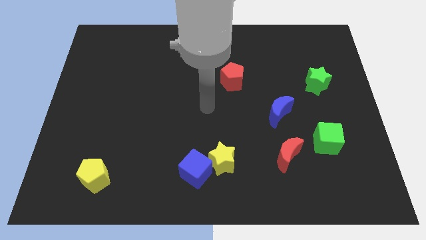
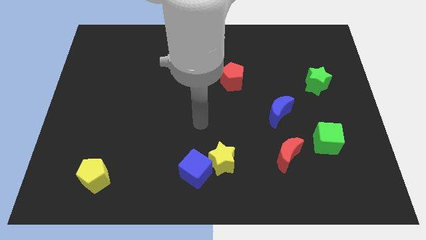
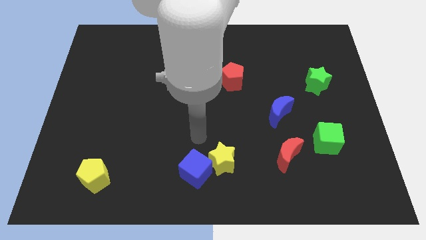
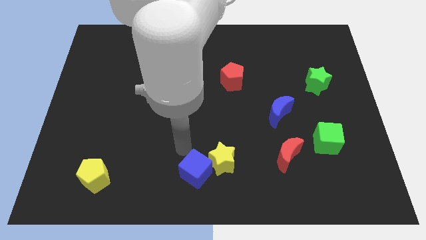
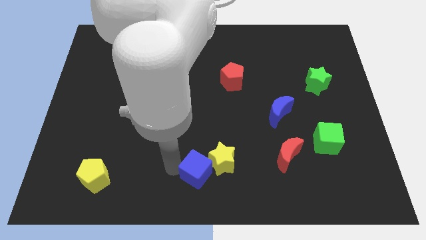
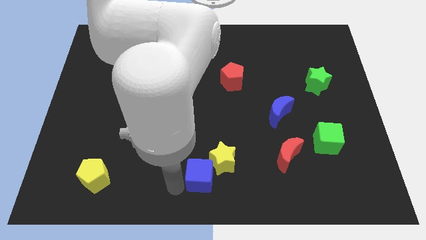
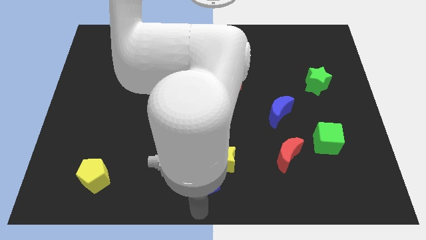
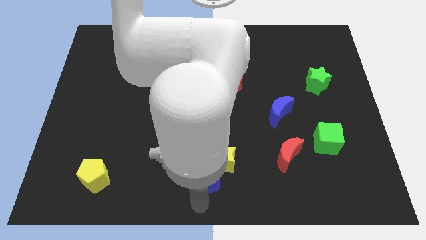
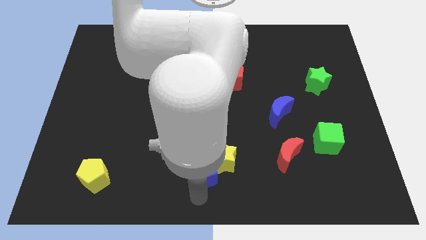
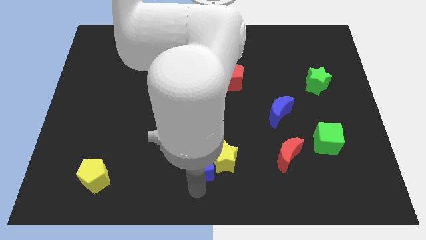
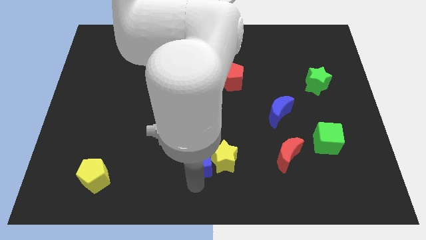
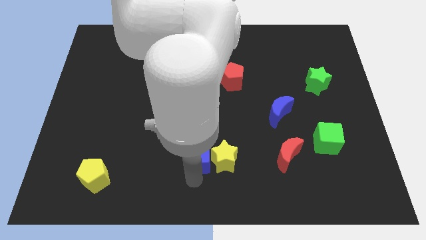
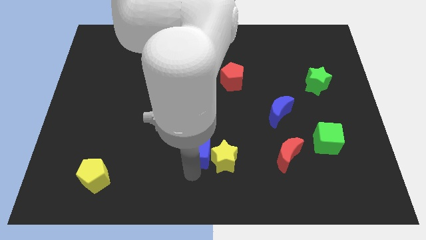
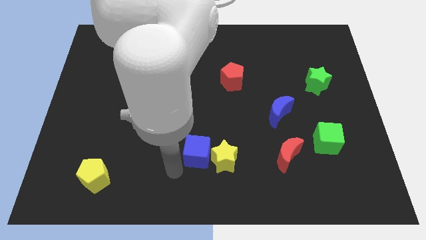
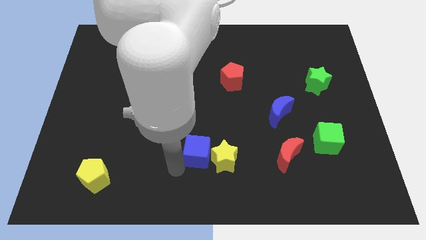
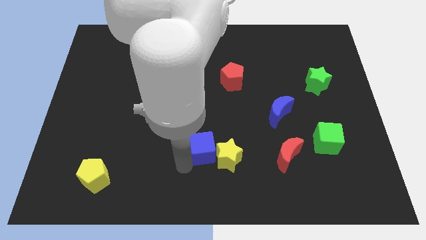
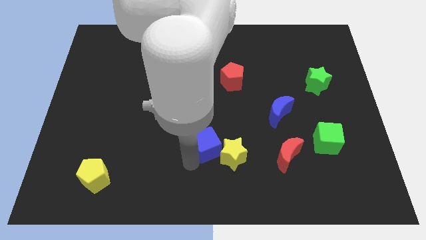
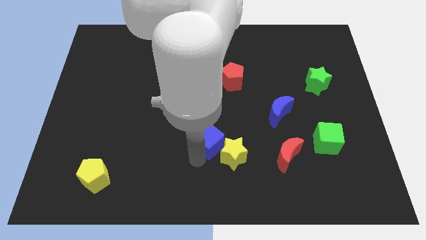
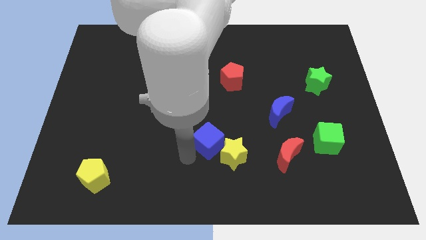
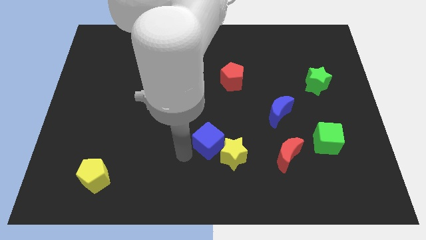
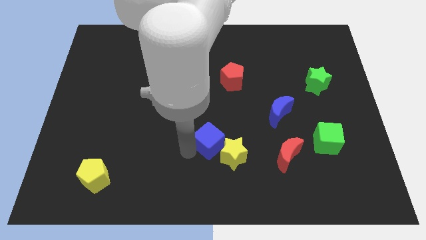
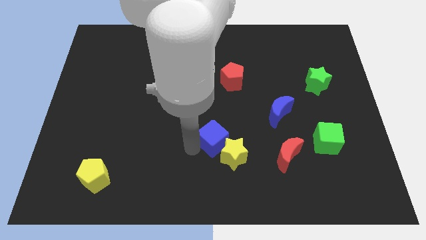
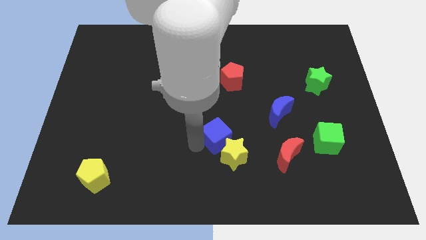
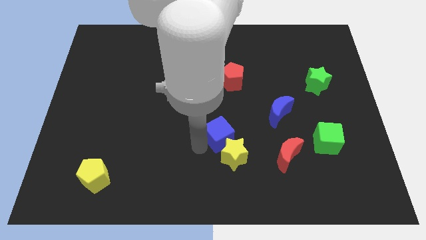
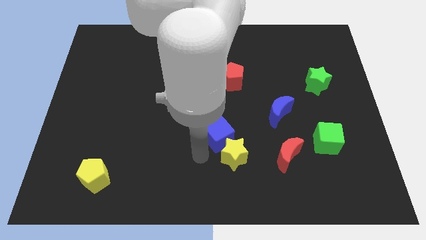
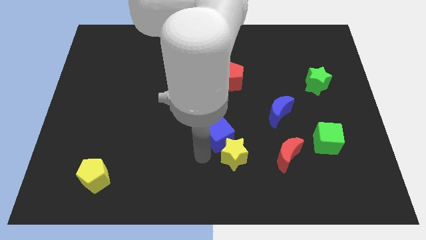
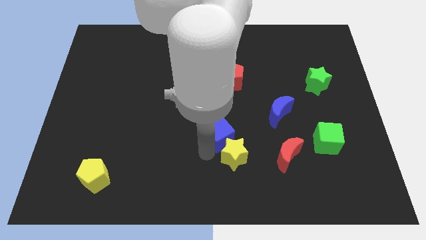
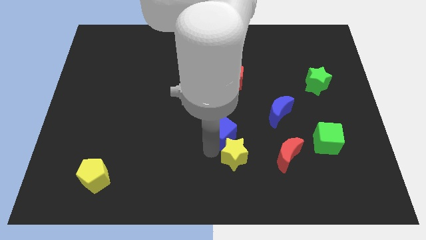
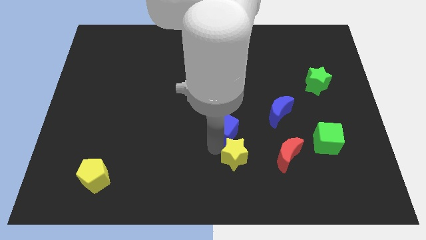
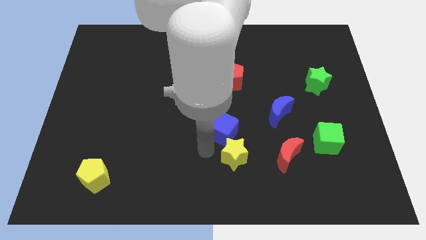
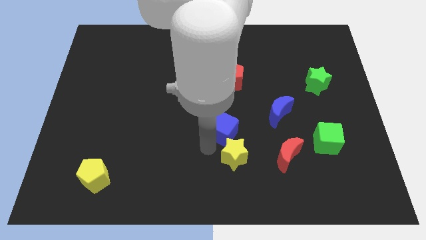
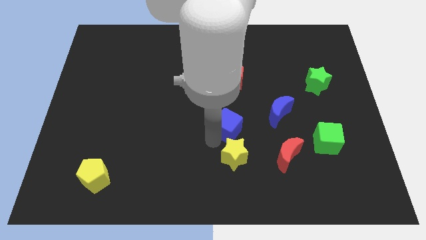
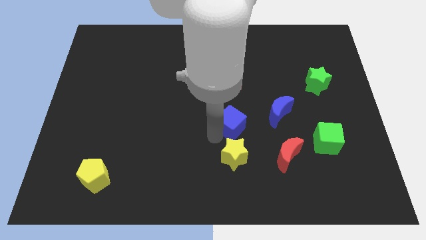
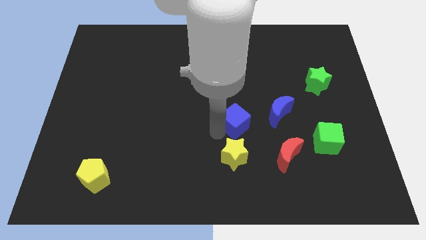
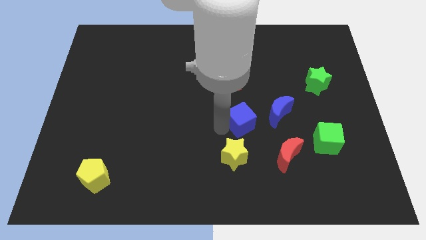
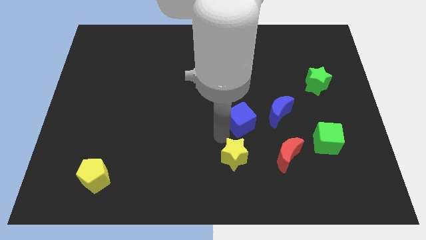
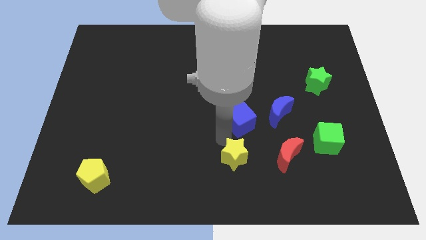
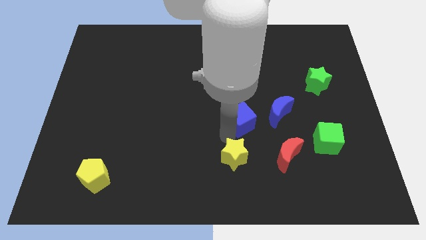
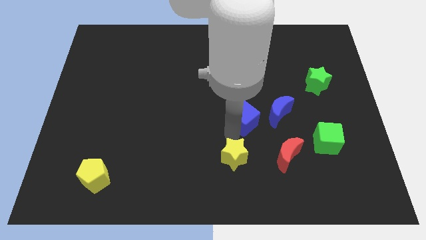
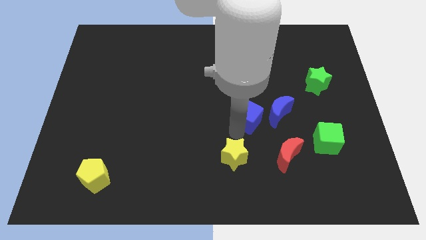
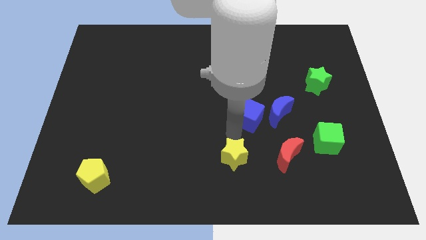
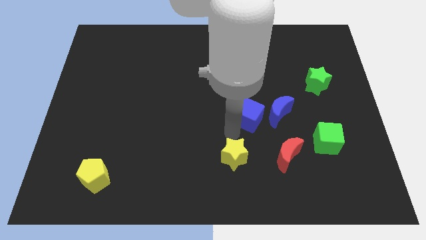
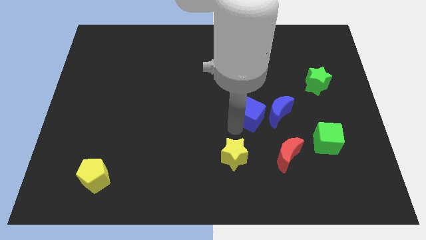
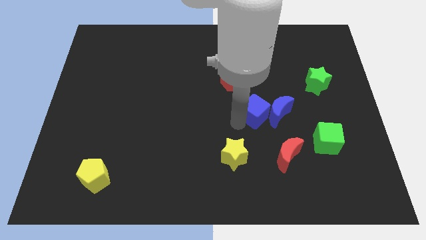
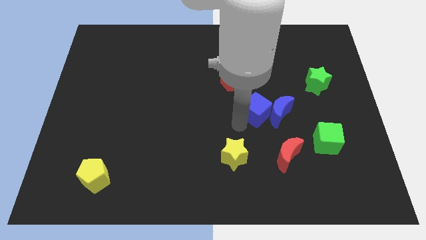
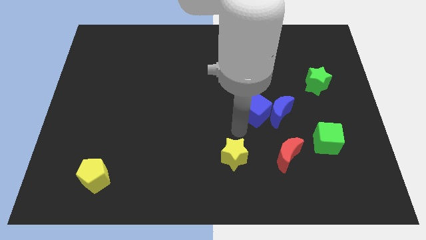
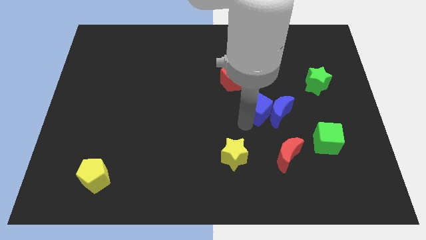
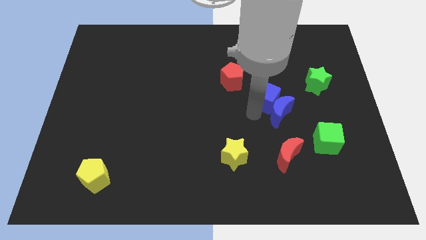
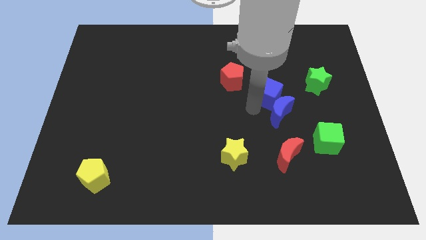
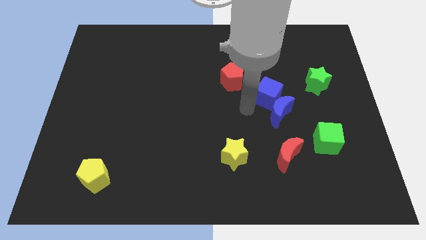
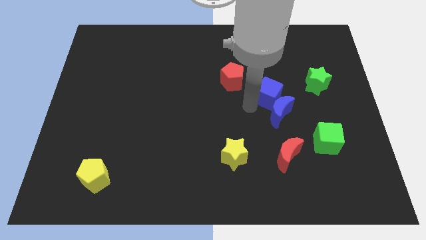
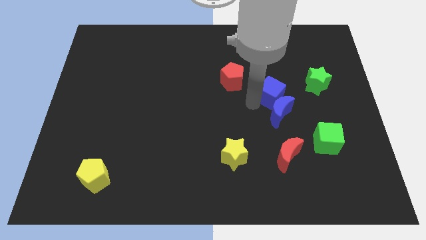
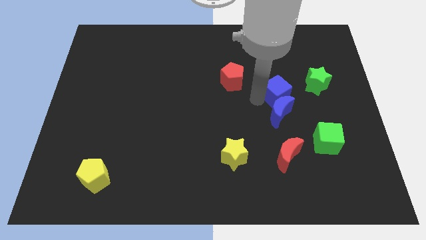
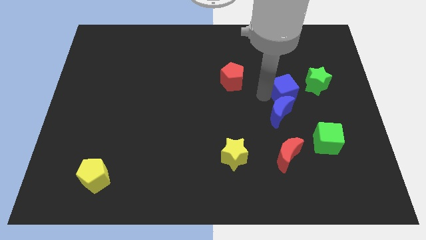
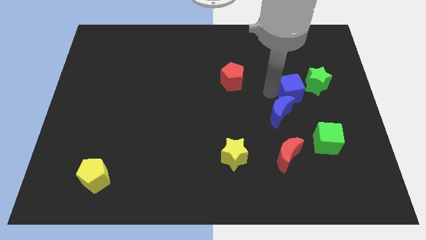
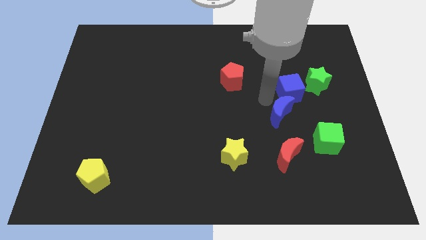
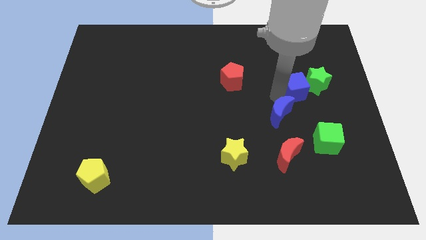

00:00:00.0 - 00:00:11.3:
push the blue cube close to the green star

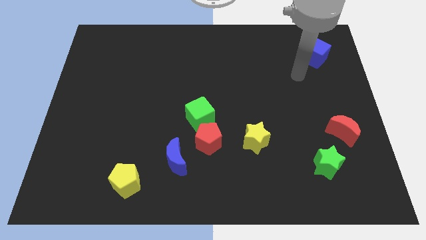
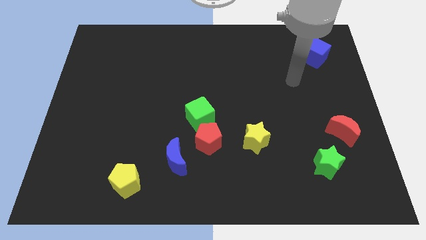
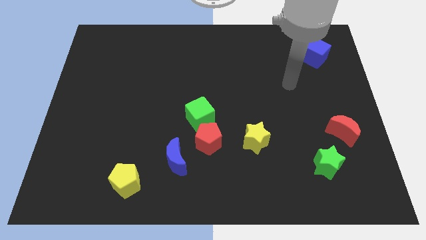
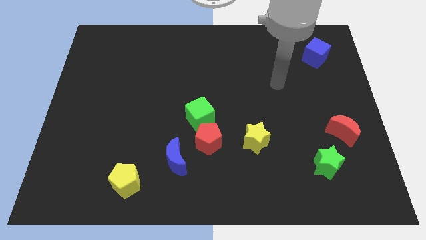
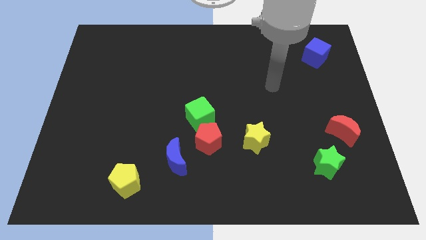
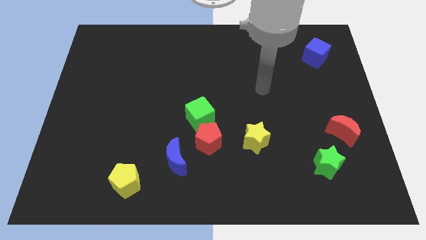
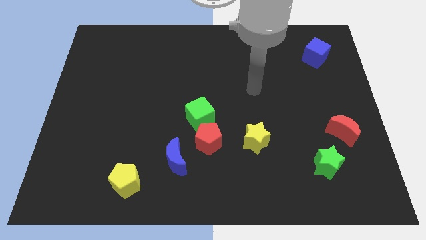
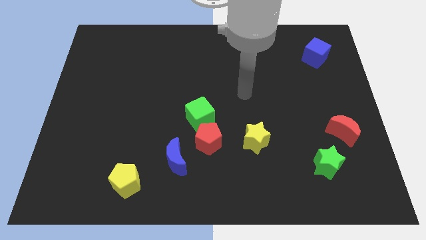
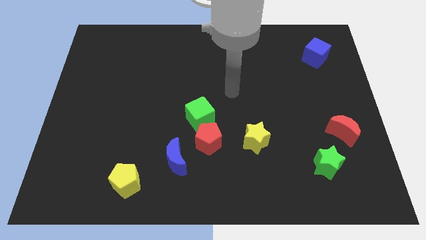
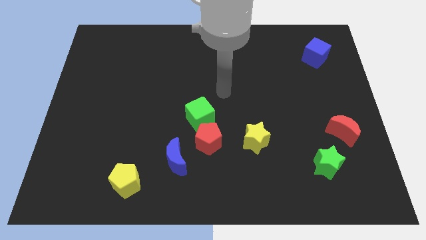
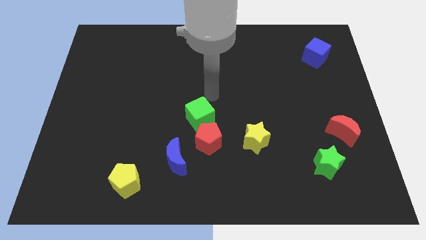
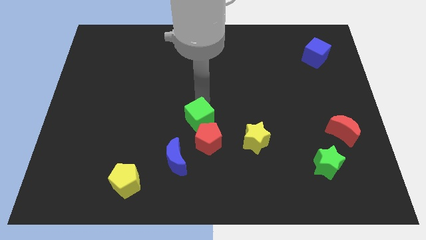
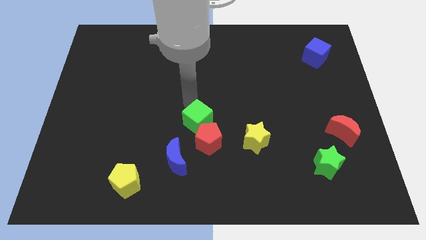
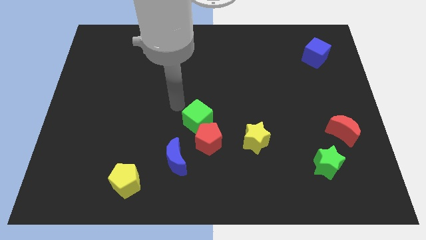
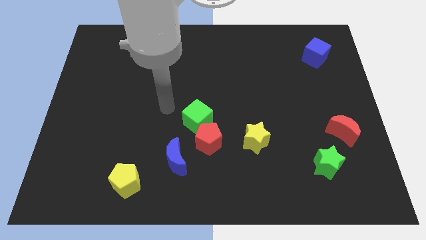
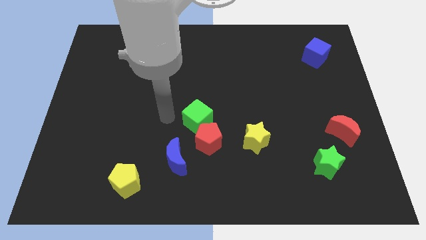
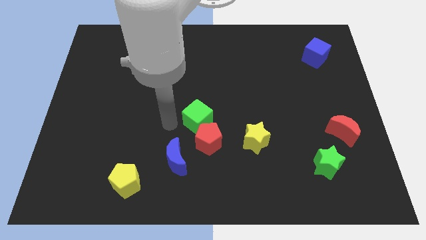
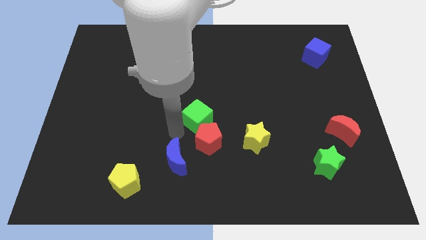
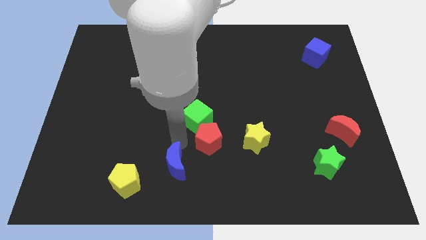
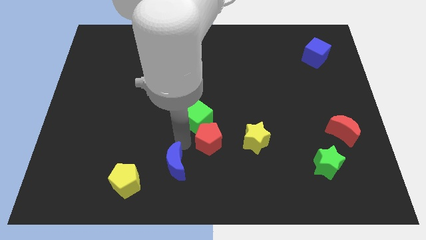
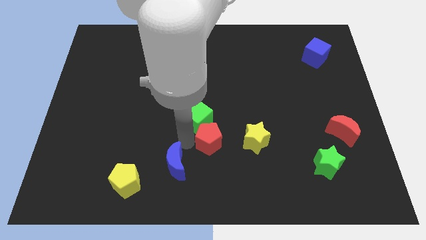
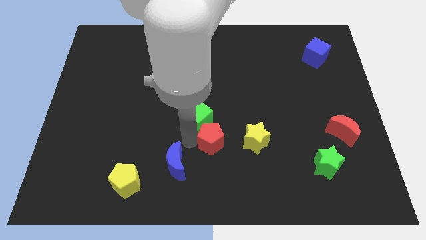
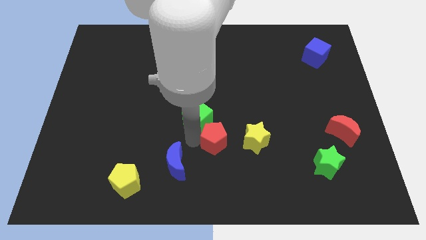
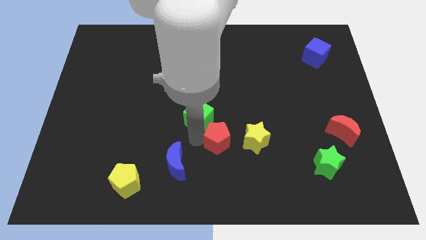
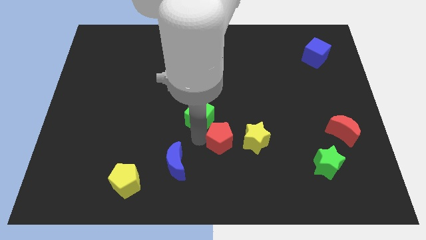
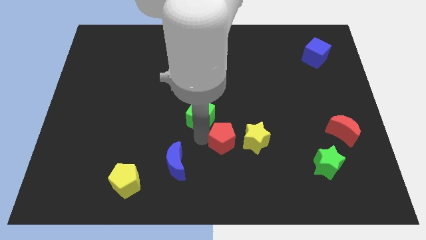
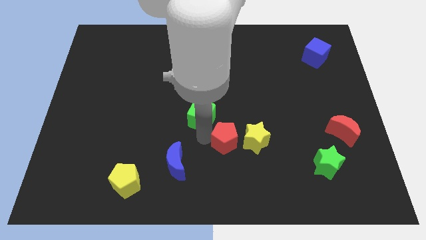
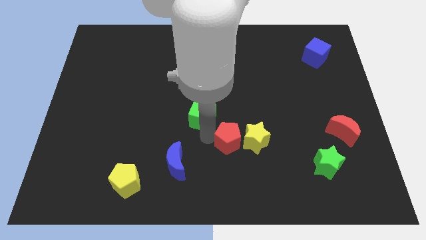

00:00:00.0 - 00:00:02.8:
push the red pentagon next to the yellow star
